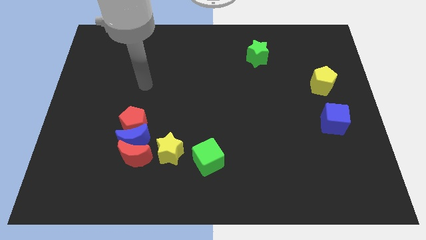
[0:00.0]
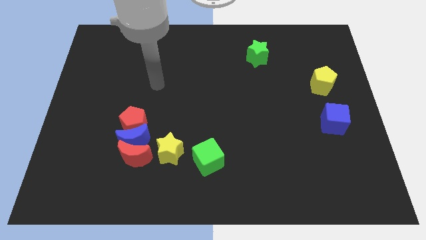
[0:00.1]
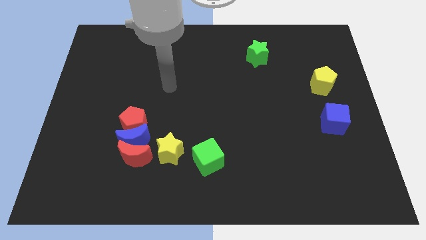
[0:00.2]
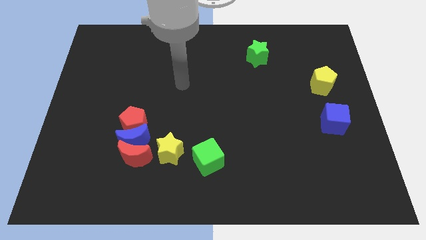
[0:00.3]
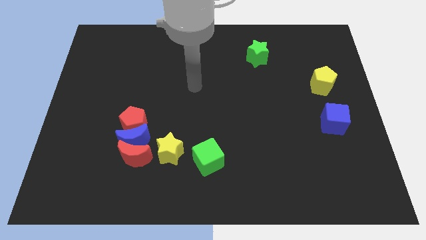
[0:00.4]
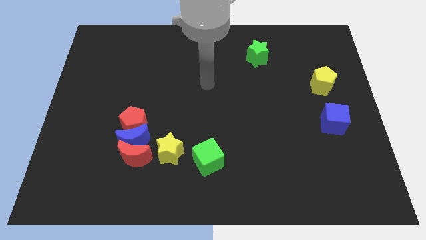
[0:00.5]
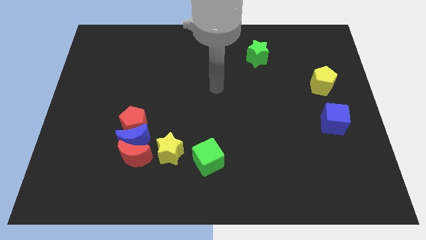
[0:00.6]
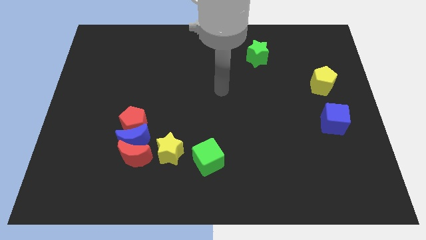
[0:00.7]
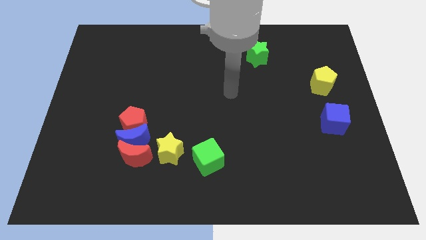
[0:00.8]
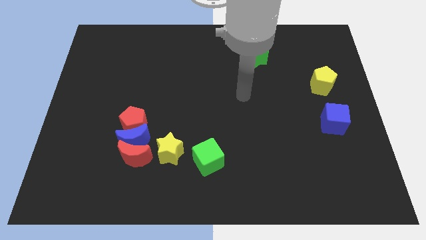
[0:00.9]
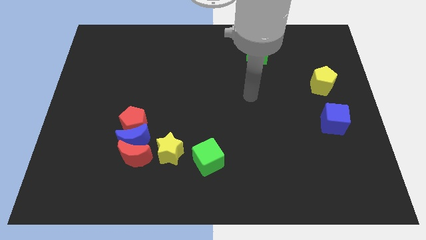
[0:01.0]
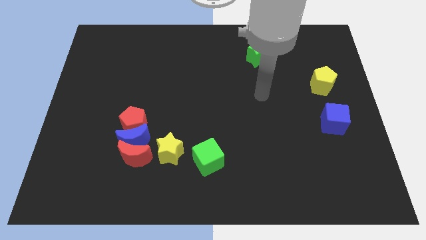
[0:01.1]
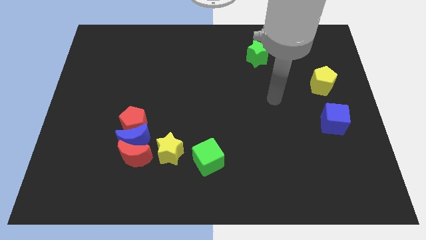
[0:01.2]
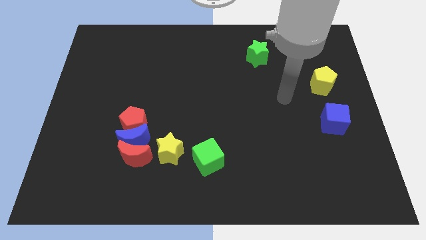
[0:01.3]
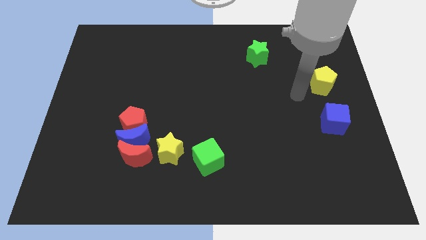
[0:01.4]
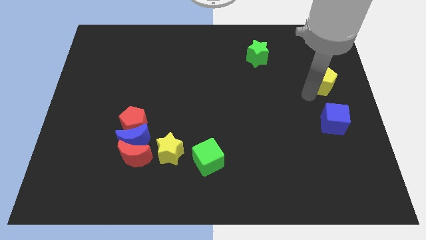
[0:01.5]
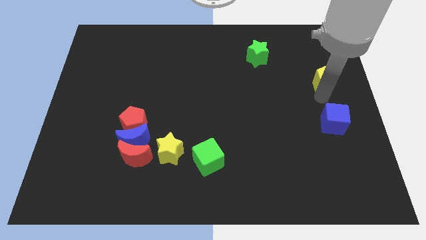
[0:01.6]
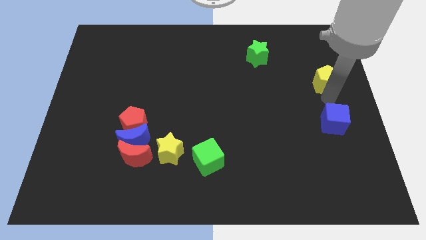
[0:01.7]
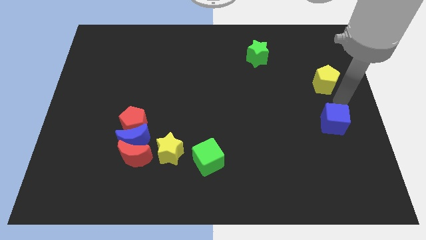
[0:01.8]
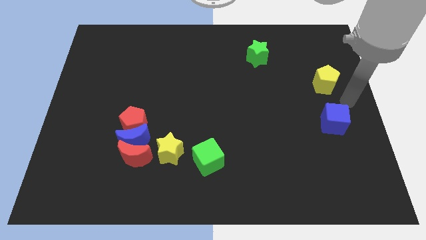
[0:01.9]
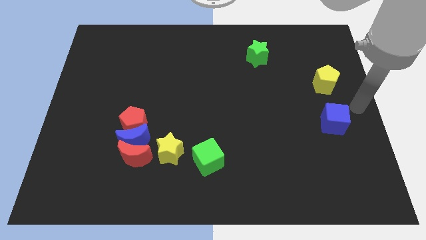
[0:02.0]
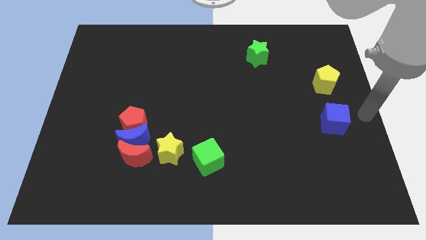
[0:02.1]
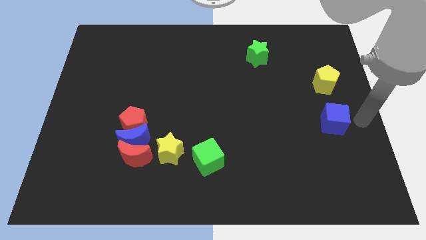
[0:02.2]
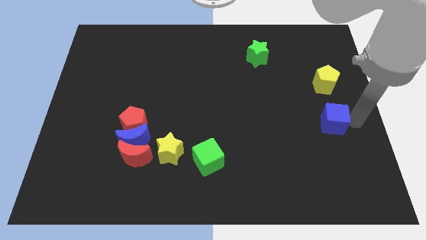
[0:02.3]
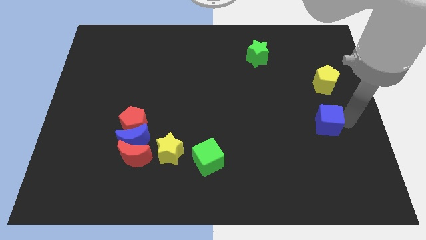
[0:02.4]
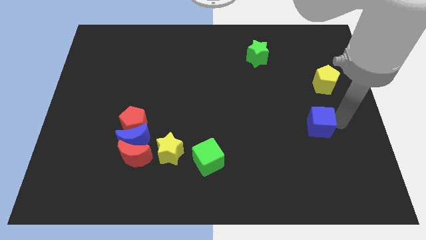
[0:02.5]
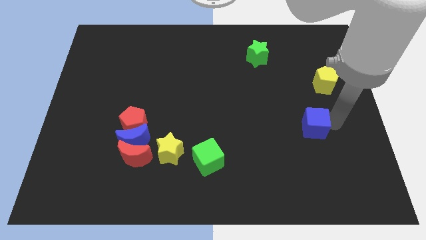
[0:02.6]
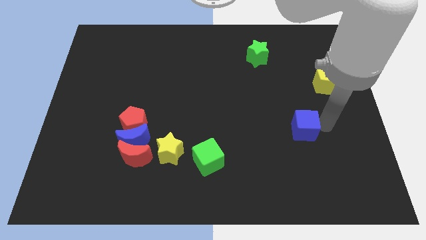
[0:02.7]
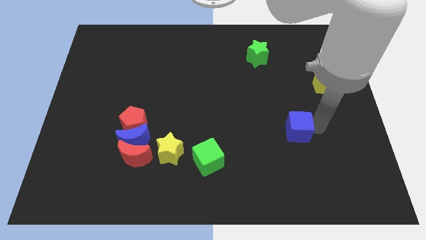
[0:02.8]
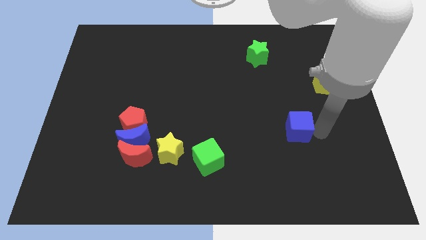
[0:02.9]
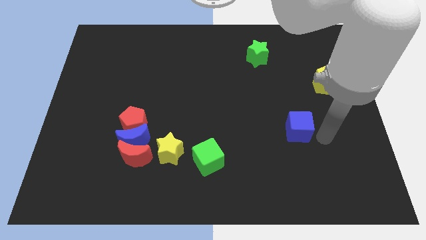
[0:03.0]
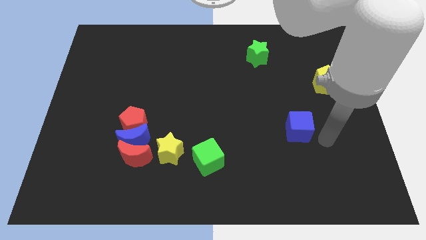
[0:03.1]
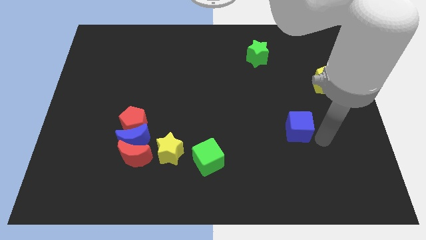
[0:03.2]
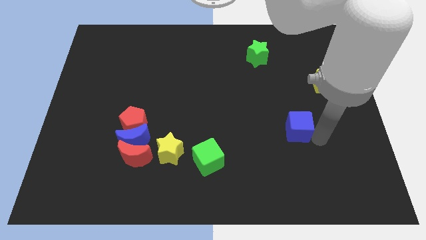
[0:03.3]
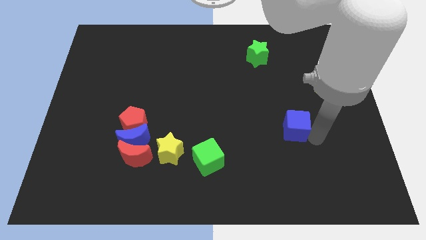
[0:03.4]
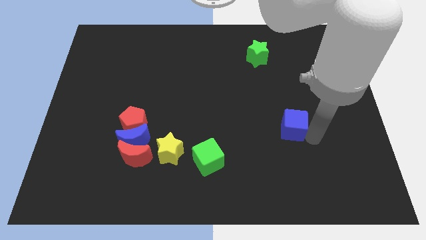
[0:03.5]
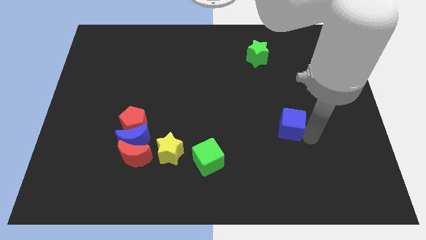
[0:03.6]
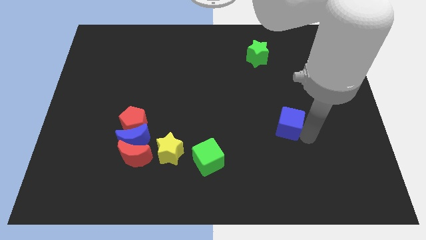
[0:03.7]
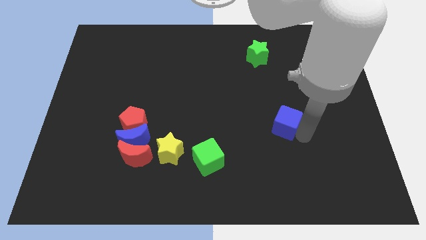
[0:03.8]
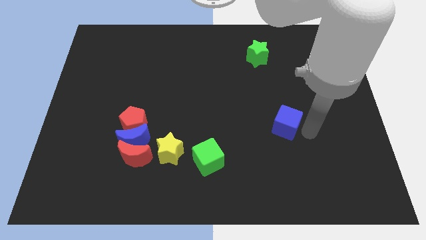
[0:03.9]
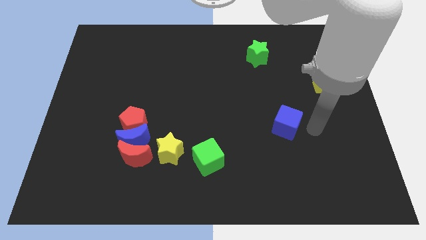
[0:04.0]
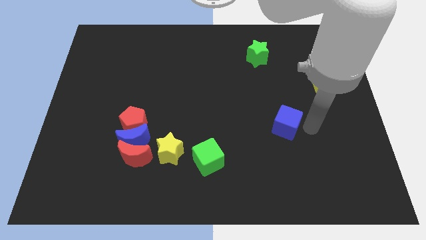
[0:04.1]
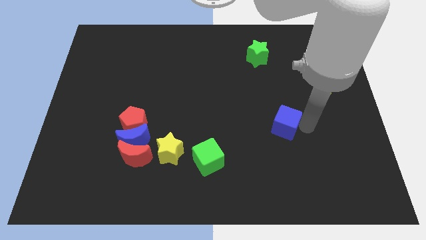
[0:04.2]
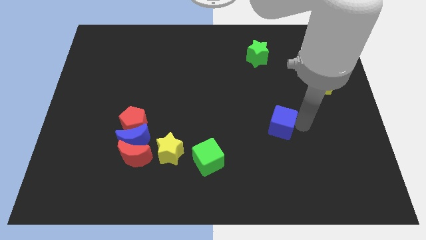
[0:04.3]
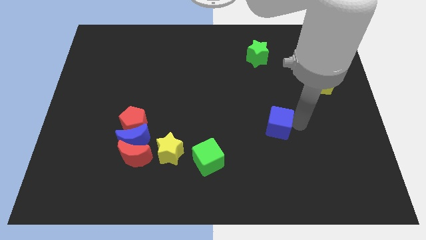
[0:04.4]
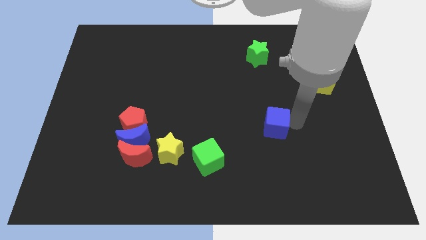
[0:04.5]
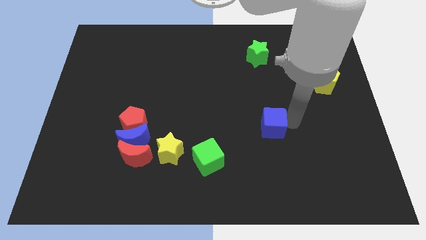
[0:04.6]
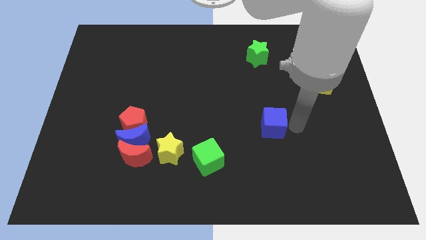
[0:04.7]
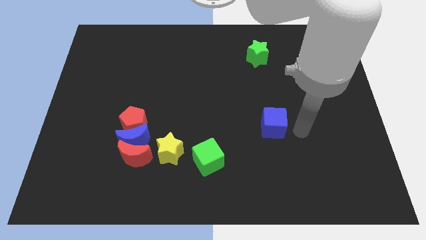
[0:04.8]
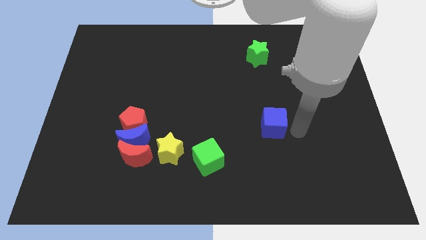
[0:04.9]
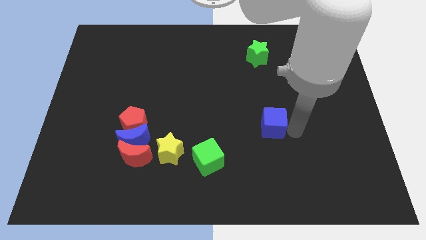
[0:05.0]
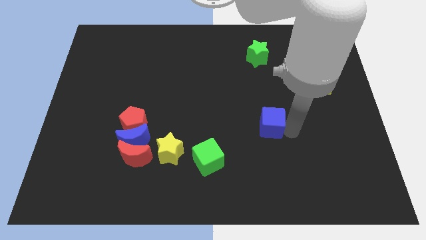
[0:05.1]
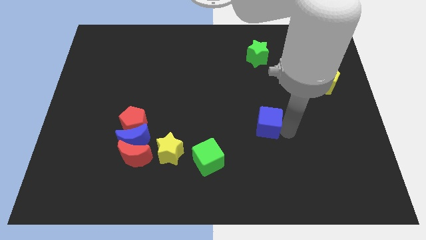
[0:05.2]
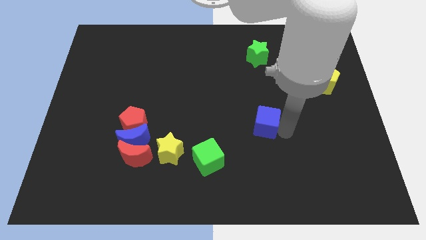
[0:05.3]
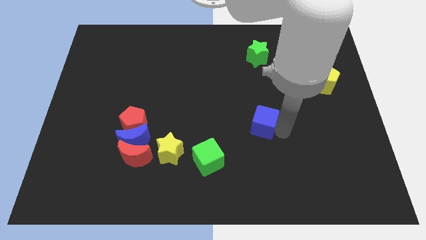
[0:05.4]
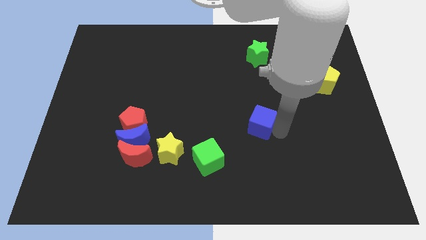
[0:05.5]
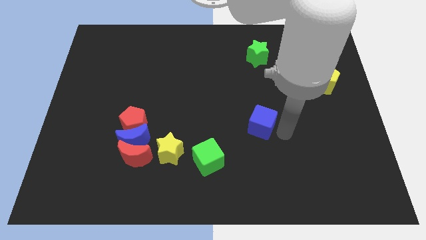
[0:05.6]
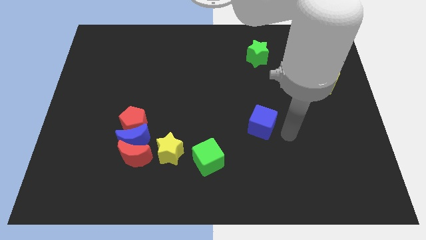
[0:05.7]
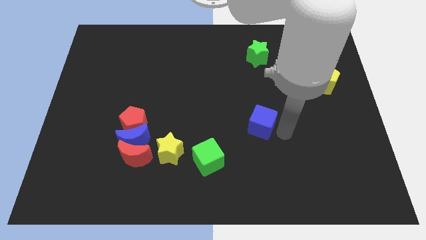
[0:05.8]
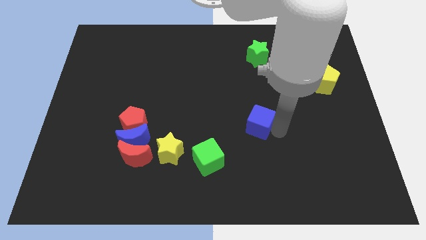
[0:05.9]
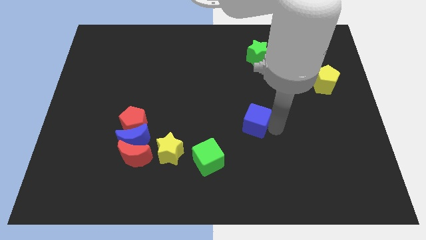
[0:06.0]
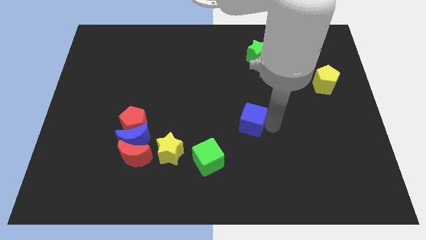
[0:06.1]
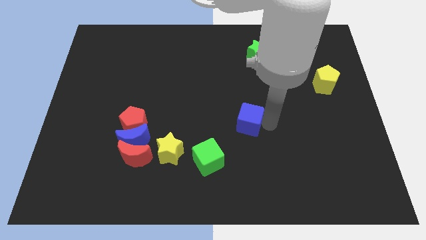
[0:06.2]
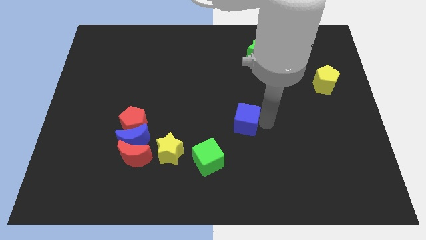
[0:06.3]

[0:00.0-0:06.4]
slide the blue cube left

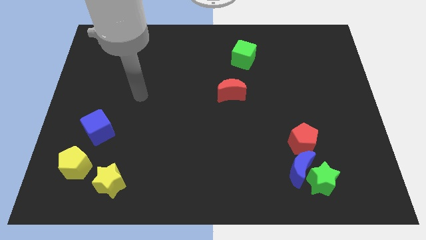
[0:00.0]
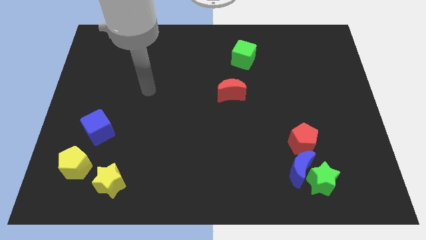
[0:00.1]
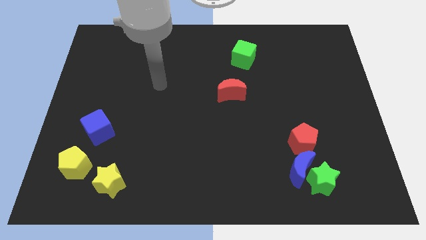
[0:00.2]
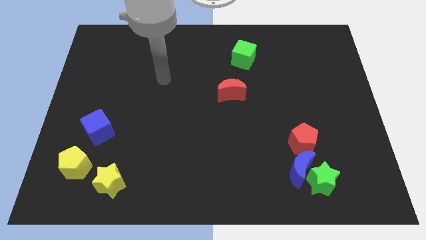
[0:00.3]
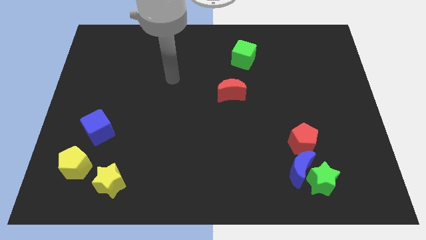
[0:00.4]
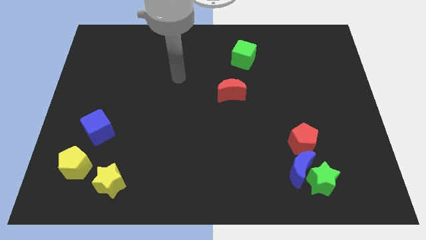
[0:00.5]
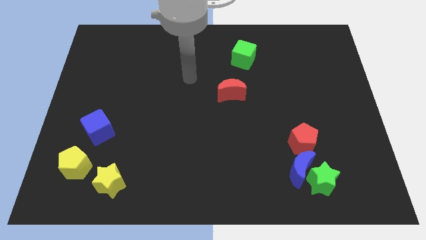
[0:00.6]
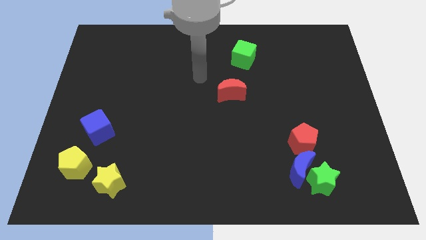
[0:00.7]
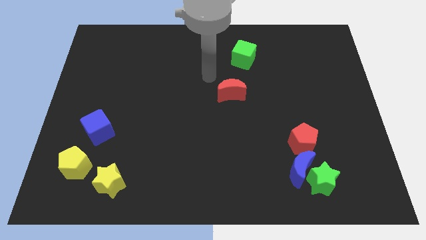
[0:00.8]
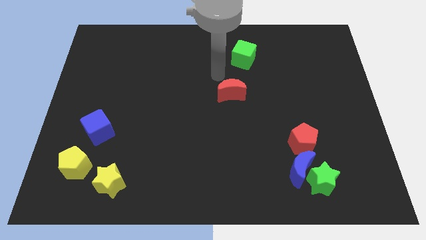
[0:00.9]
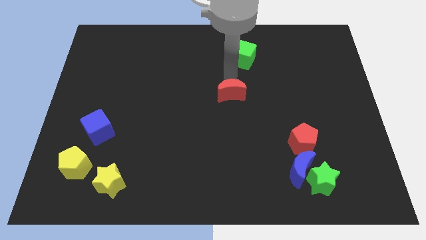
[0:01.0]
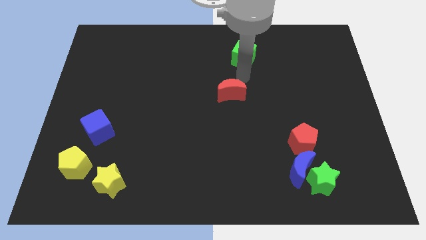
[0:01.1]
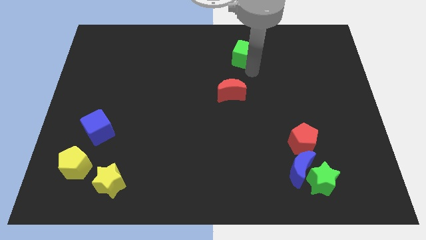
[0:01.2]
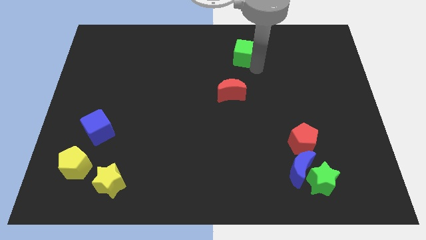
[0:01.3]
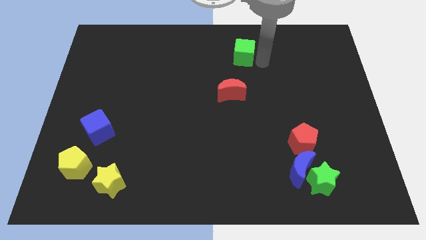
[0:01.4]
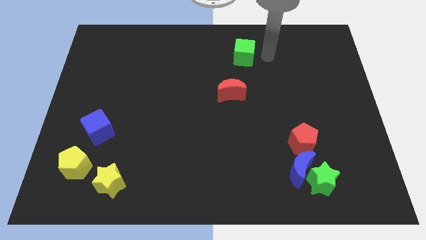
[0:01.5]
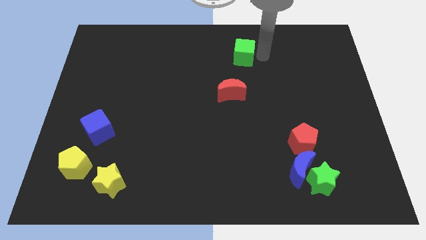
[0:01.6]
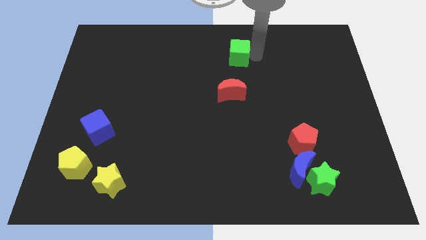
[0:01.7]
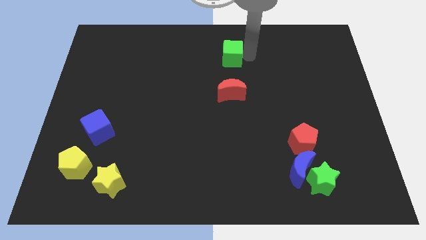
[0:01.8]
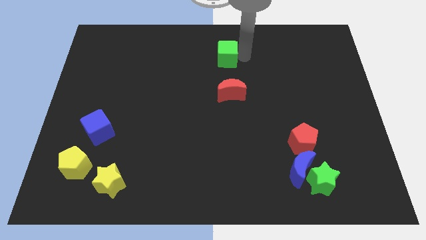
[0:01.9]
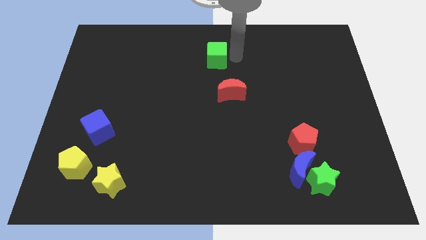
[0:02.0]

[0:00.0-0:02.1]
move the green cube a little bit to the left
